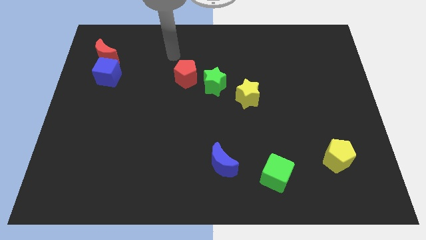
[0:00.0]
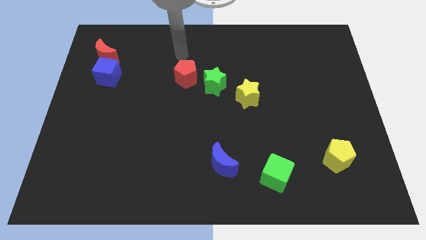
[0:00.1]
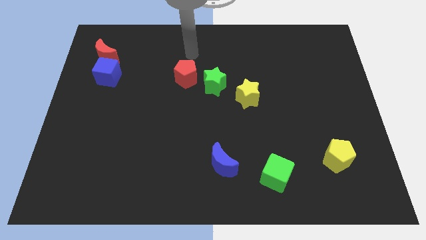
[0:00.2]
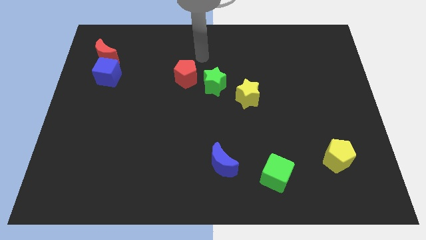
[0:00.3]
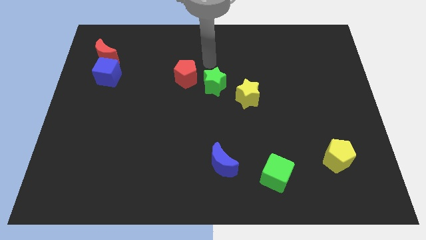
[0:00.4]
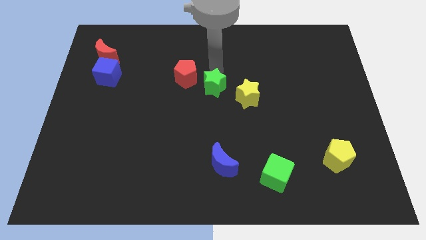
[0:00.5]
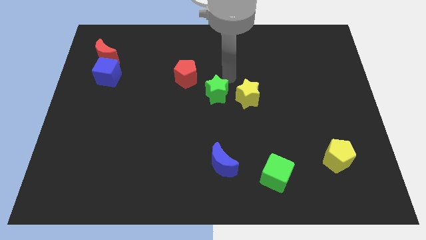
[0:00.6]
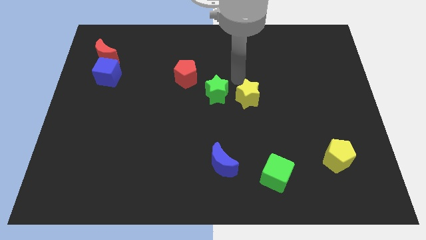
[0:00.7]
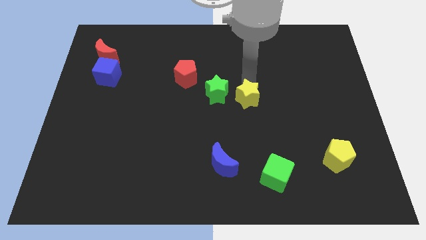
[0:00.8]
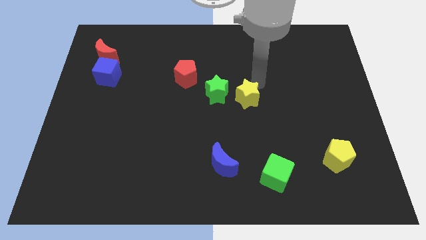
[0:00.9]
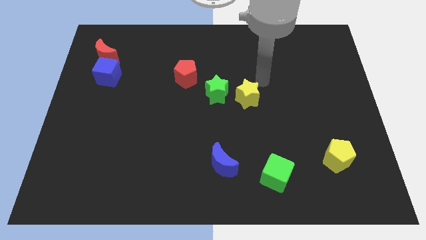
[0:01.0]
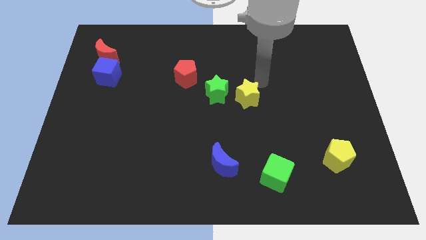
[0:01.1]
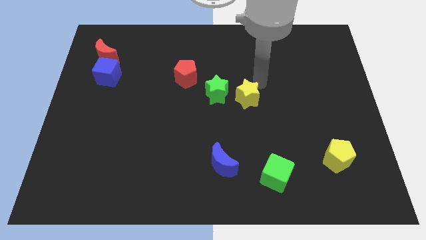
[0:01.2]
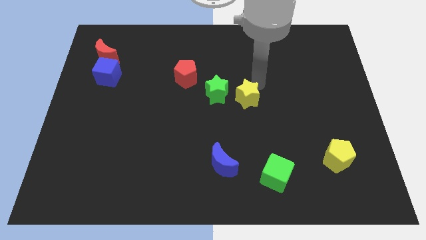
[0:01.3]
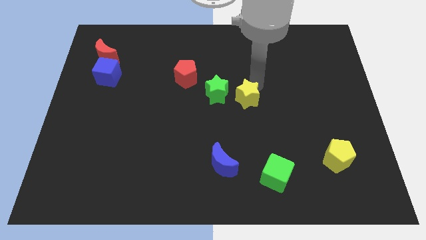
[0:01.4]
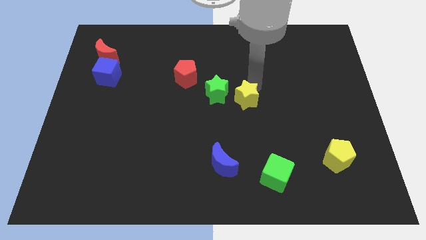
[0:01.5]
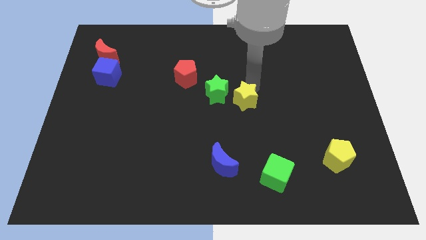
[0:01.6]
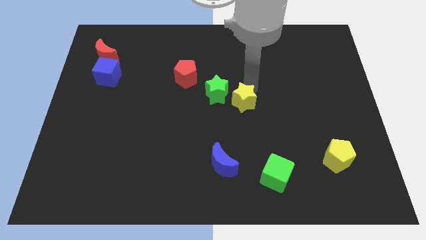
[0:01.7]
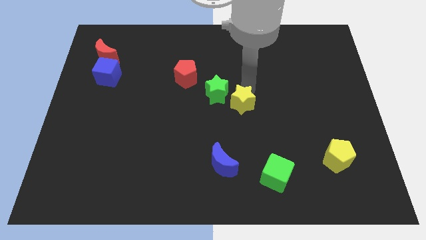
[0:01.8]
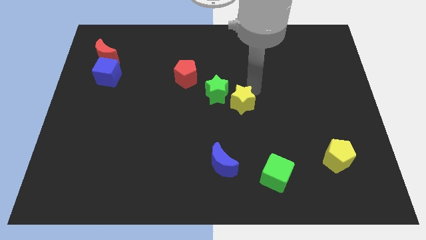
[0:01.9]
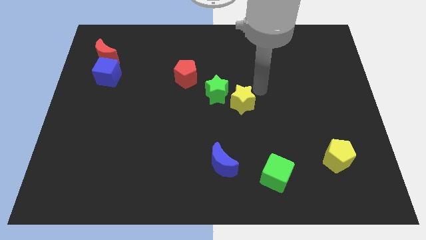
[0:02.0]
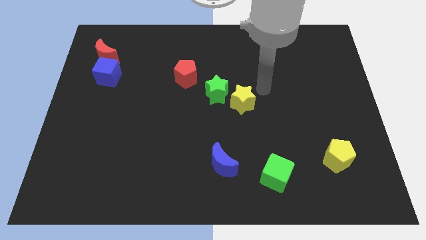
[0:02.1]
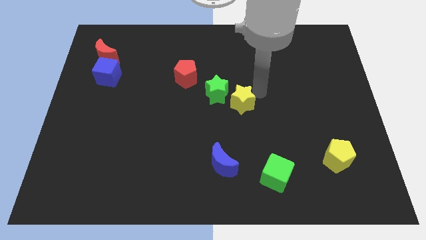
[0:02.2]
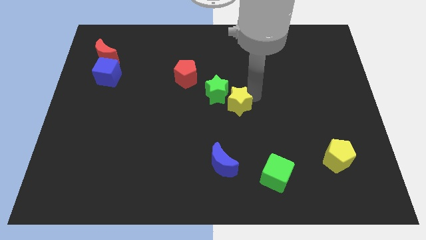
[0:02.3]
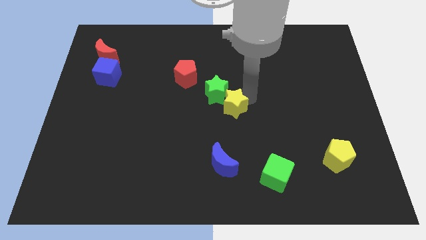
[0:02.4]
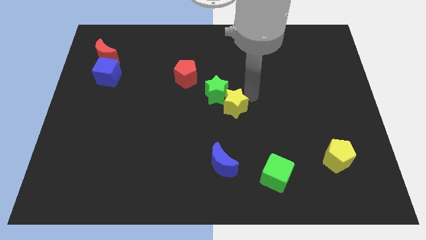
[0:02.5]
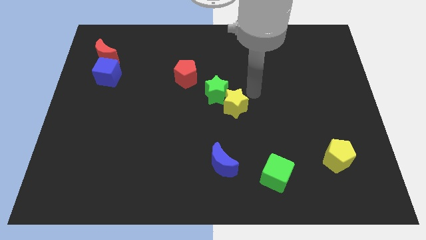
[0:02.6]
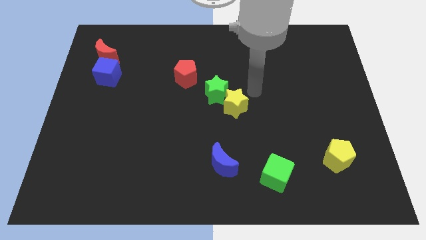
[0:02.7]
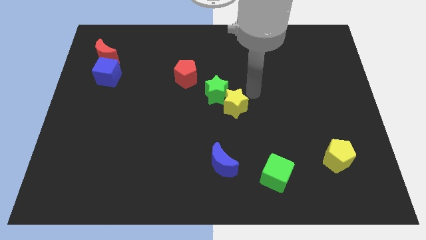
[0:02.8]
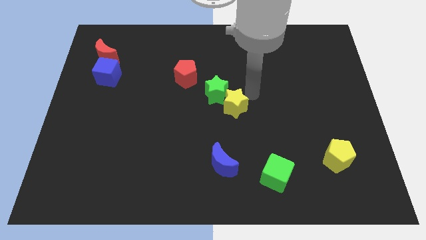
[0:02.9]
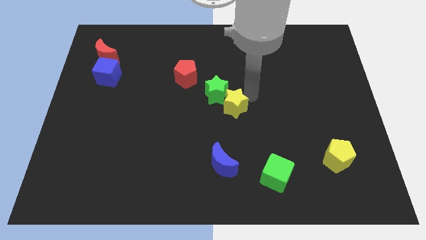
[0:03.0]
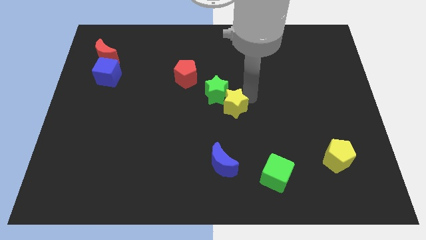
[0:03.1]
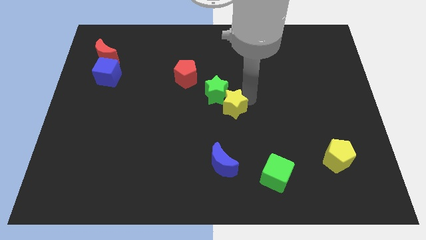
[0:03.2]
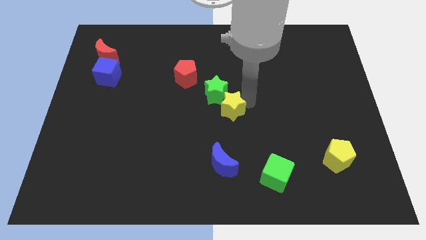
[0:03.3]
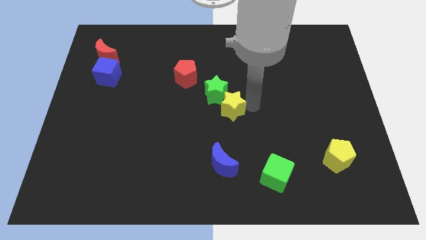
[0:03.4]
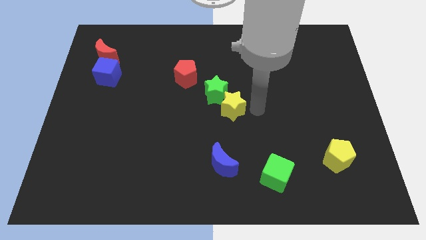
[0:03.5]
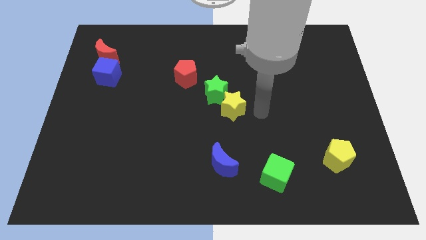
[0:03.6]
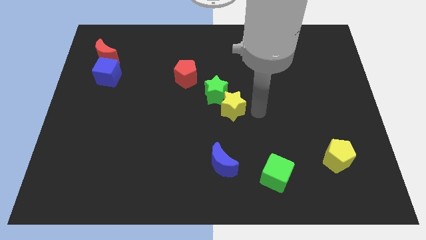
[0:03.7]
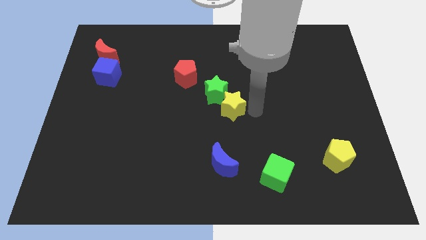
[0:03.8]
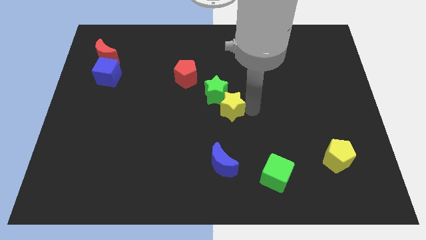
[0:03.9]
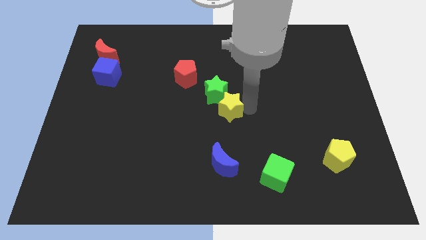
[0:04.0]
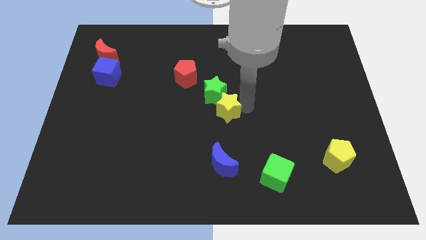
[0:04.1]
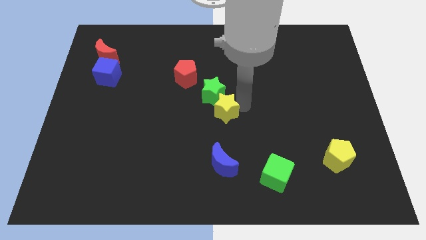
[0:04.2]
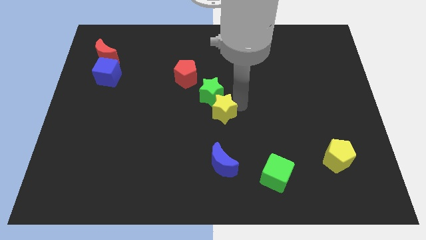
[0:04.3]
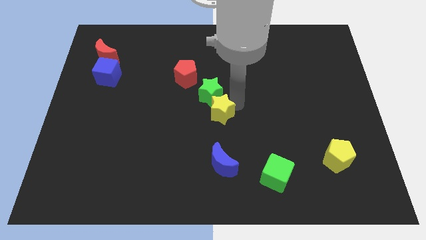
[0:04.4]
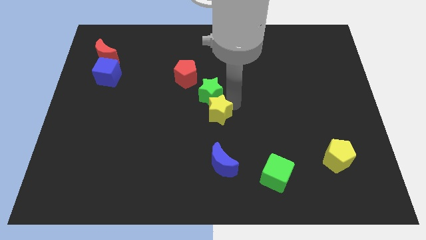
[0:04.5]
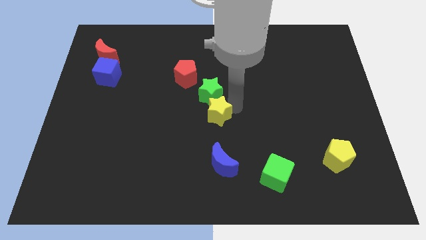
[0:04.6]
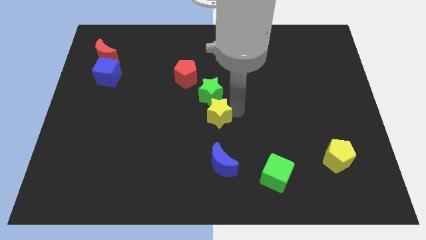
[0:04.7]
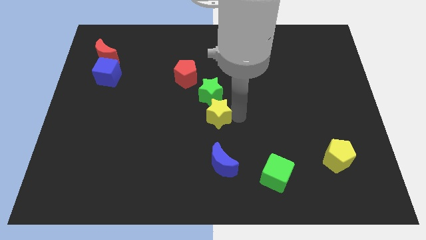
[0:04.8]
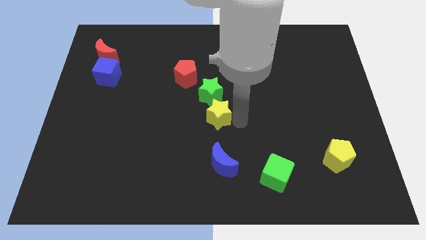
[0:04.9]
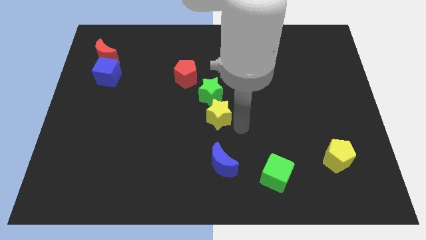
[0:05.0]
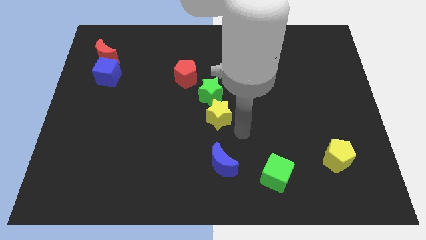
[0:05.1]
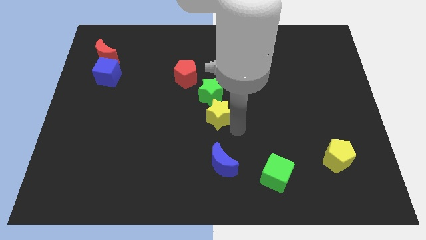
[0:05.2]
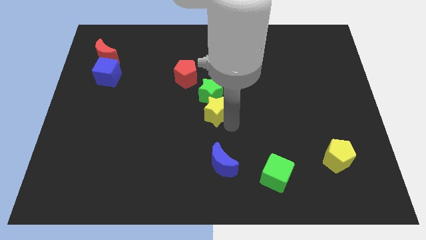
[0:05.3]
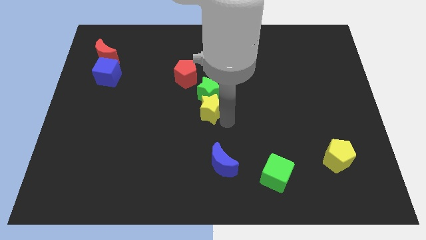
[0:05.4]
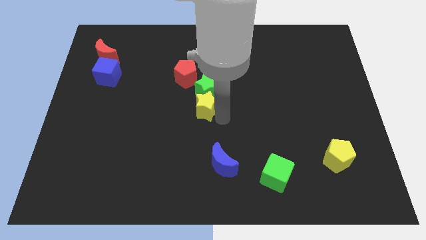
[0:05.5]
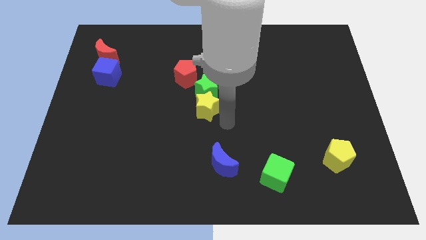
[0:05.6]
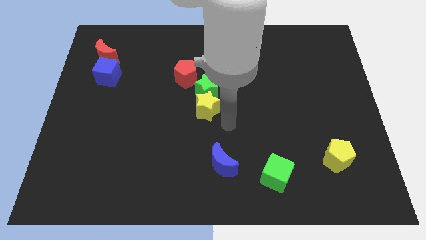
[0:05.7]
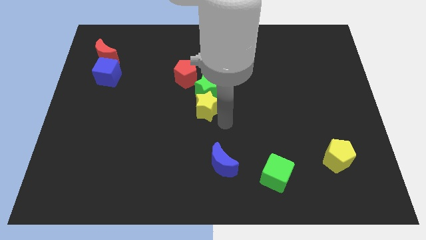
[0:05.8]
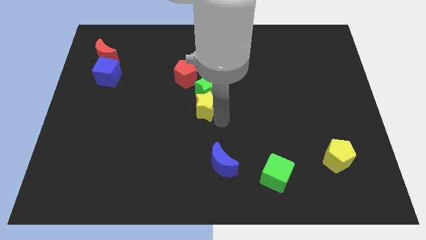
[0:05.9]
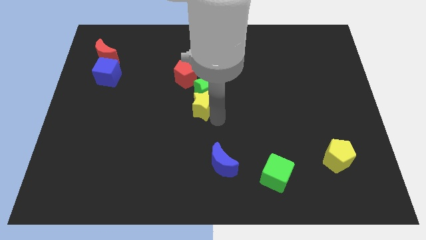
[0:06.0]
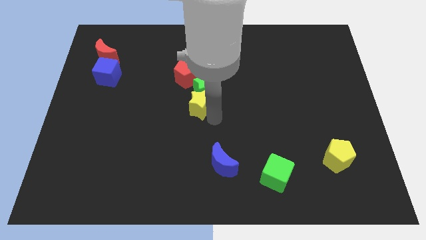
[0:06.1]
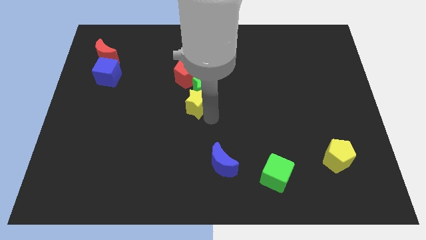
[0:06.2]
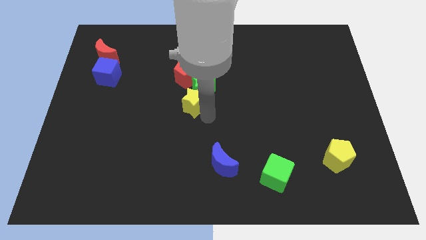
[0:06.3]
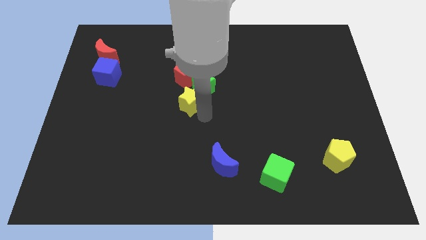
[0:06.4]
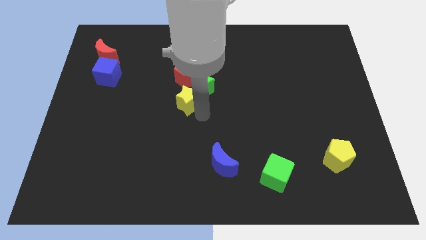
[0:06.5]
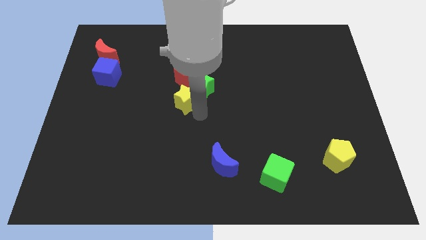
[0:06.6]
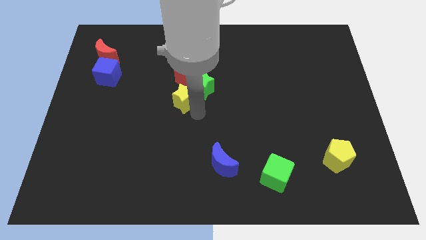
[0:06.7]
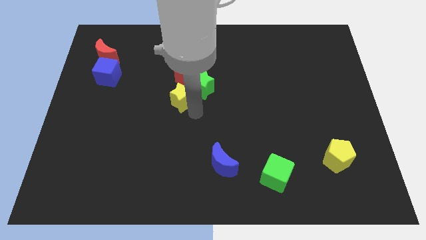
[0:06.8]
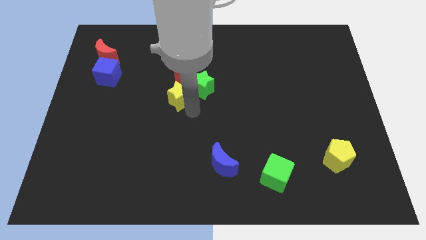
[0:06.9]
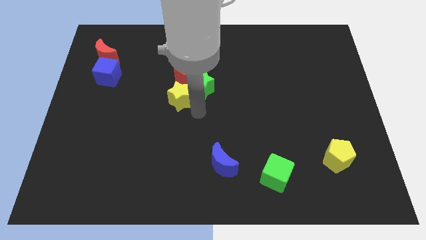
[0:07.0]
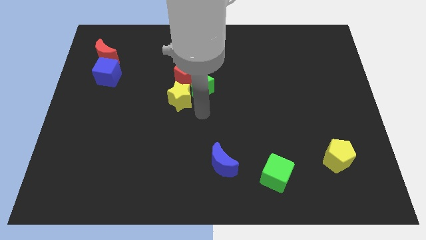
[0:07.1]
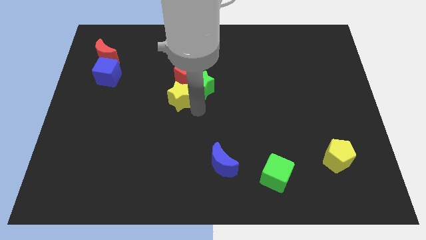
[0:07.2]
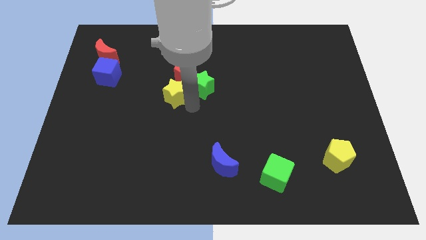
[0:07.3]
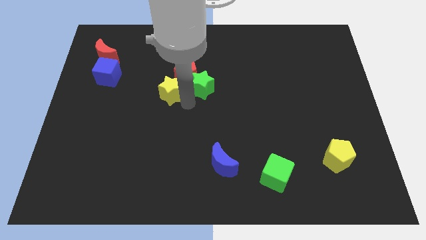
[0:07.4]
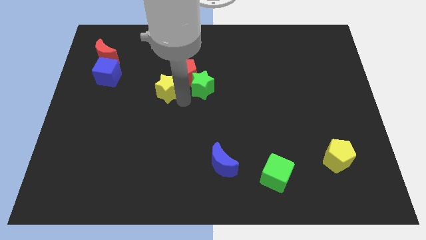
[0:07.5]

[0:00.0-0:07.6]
push the yellow star left of the red pentagon
